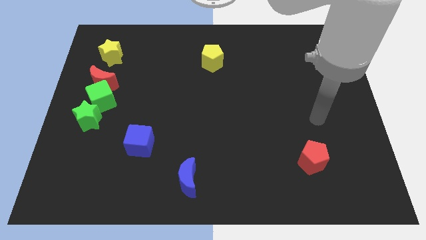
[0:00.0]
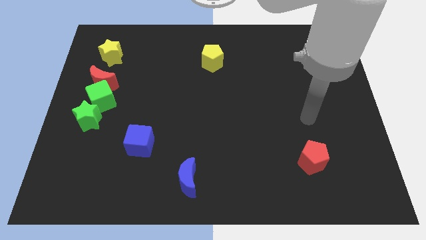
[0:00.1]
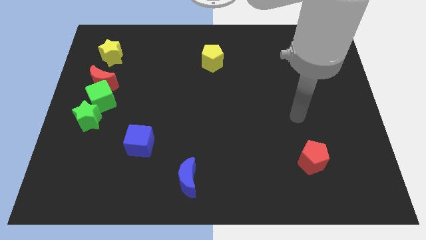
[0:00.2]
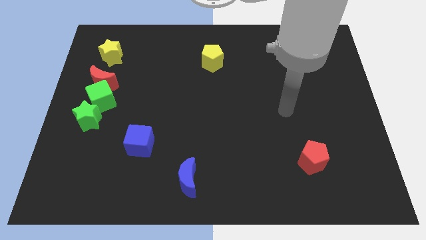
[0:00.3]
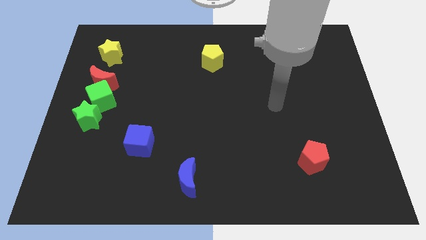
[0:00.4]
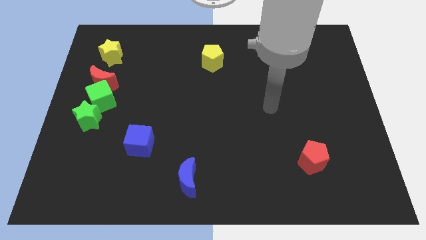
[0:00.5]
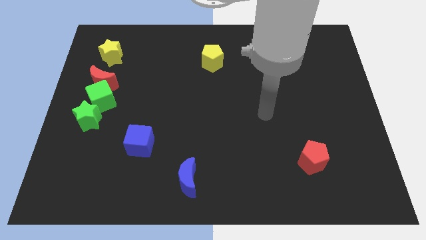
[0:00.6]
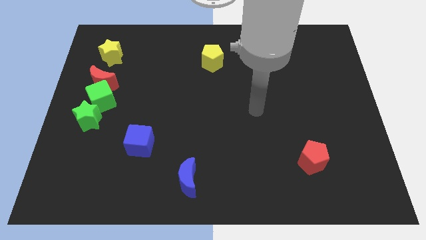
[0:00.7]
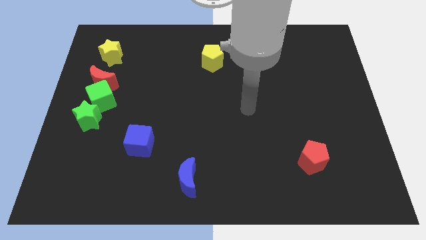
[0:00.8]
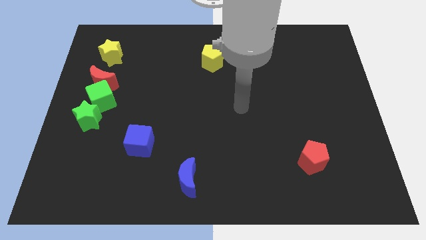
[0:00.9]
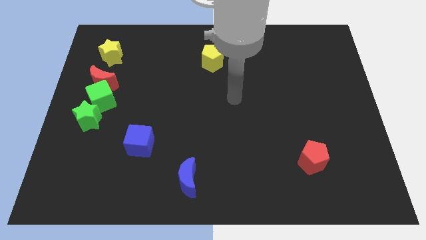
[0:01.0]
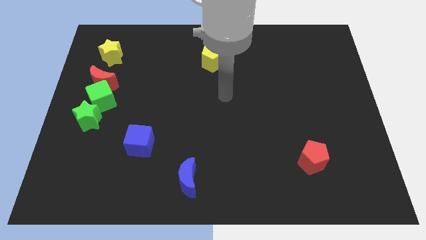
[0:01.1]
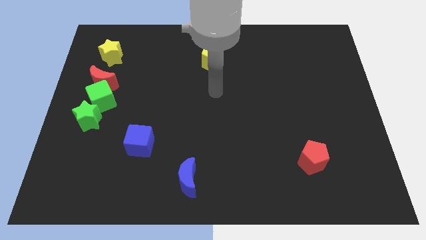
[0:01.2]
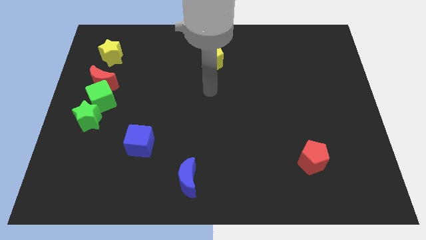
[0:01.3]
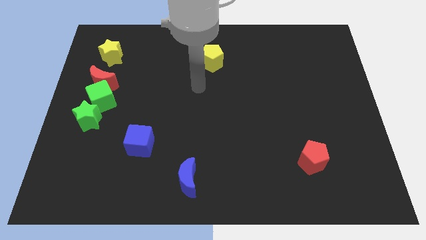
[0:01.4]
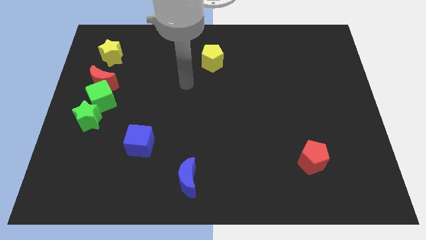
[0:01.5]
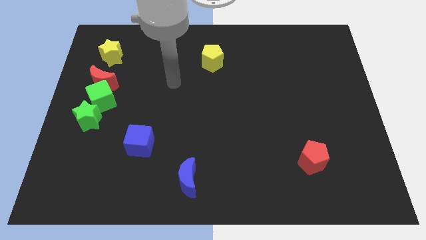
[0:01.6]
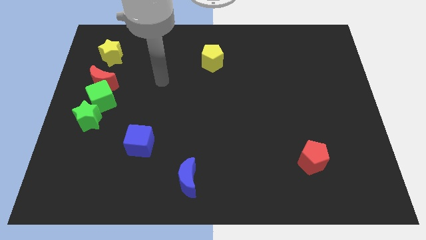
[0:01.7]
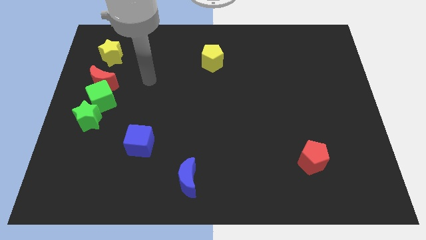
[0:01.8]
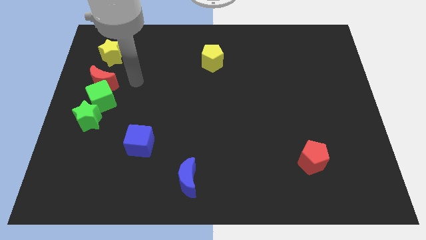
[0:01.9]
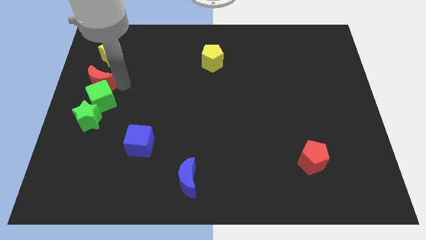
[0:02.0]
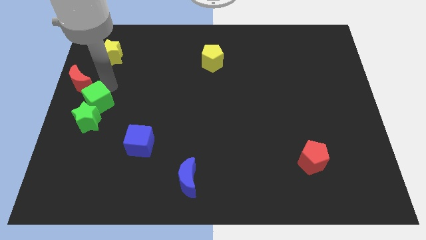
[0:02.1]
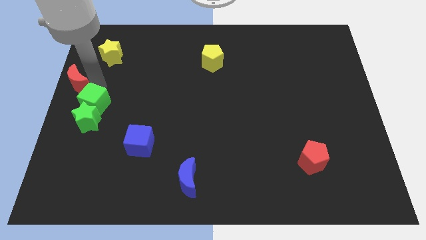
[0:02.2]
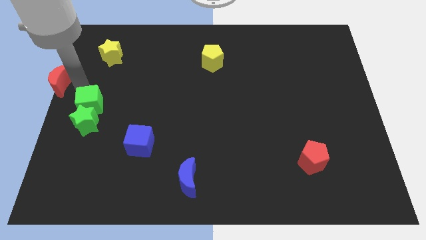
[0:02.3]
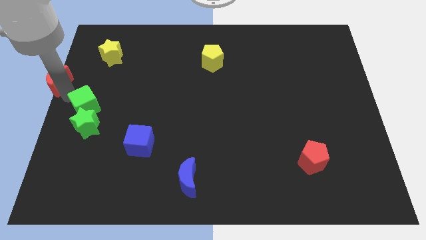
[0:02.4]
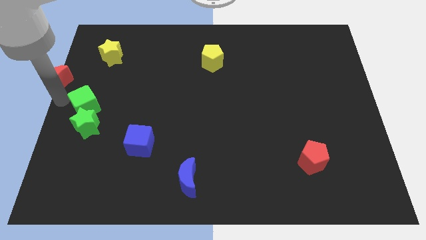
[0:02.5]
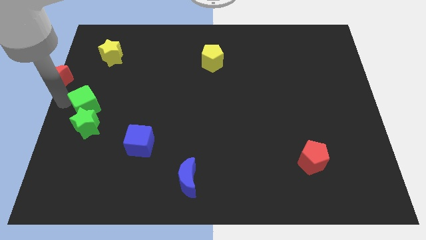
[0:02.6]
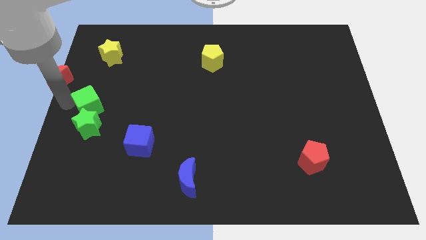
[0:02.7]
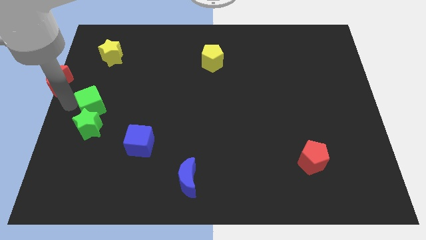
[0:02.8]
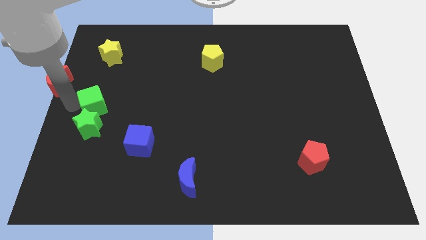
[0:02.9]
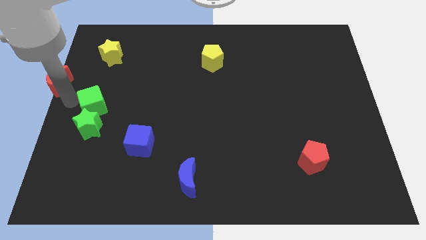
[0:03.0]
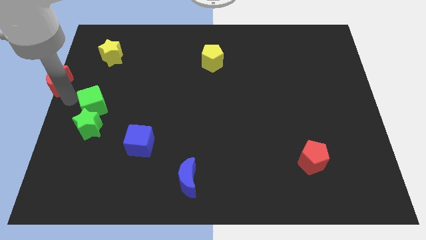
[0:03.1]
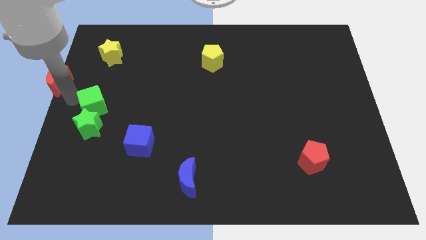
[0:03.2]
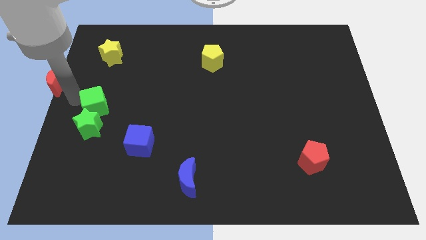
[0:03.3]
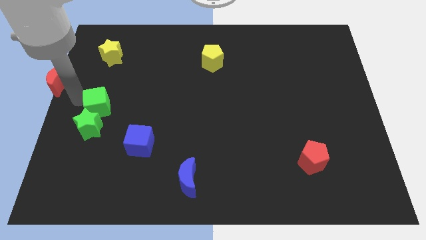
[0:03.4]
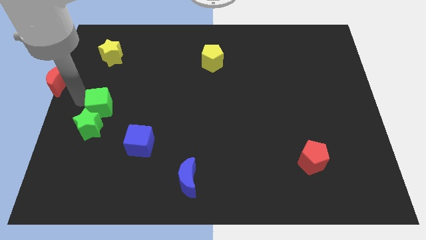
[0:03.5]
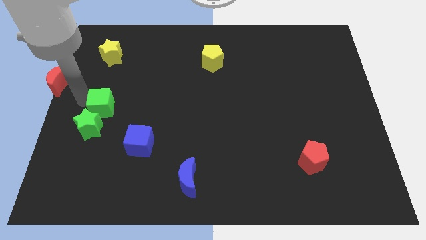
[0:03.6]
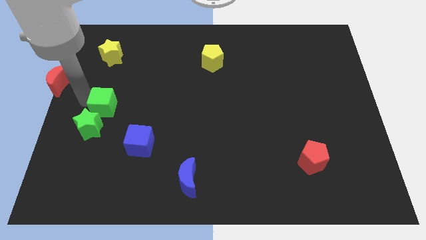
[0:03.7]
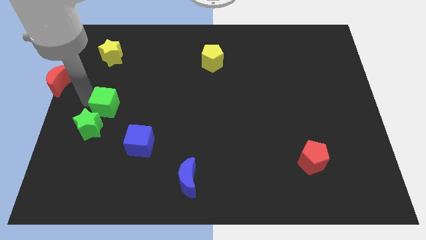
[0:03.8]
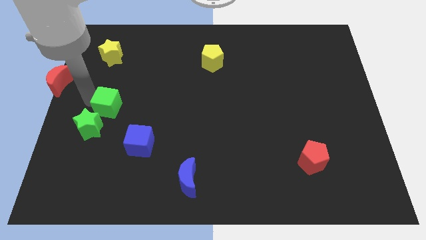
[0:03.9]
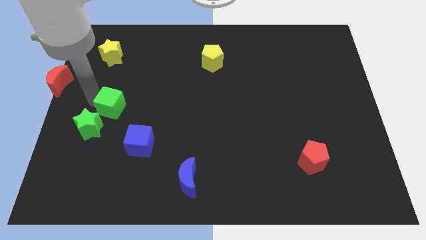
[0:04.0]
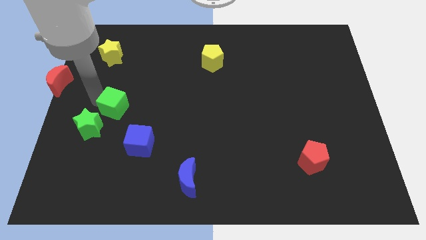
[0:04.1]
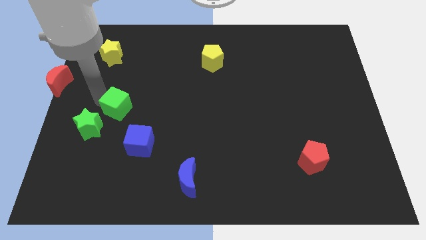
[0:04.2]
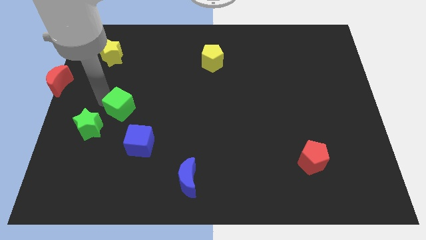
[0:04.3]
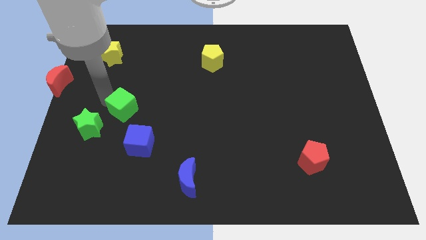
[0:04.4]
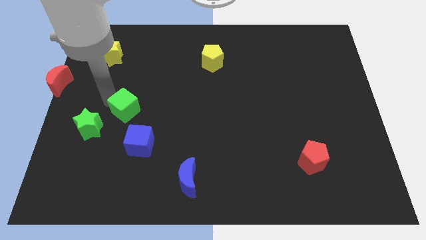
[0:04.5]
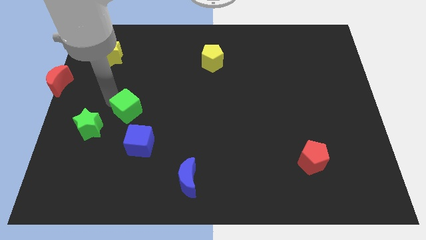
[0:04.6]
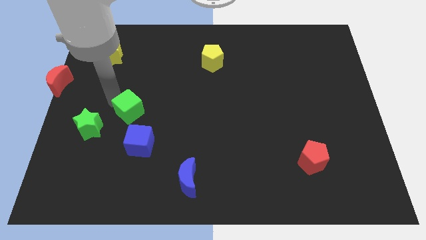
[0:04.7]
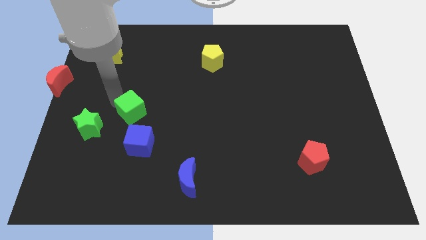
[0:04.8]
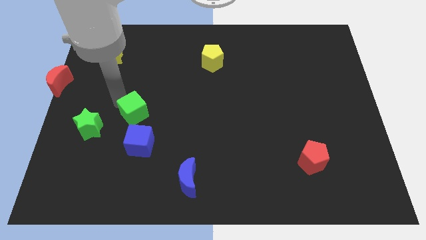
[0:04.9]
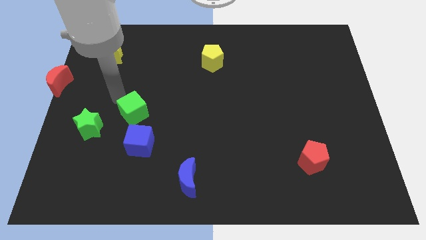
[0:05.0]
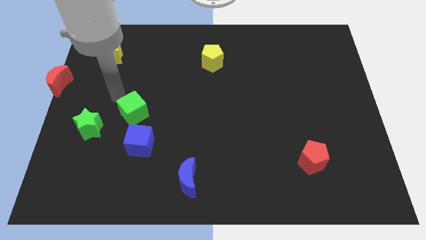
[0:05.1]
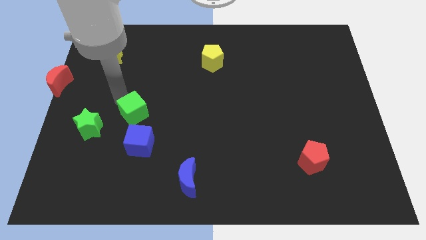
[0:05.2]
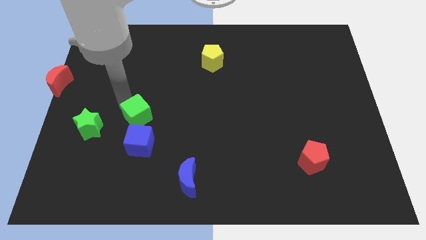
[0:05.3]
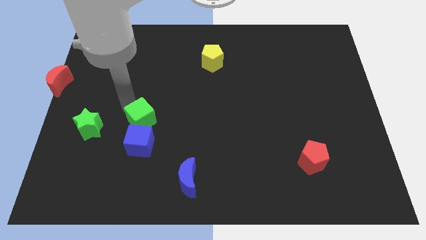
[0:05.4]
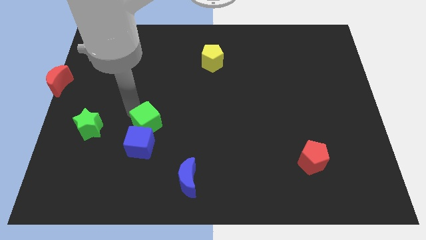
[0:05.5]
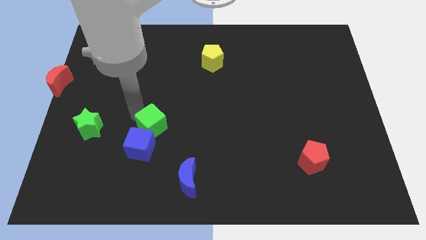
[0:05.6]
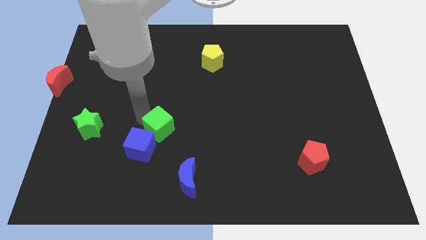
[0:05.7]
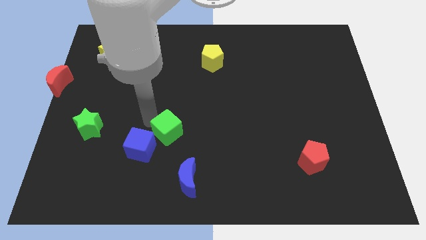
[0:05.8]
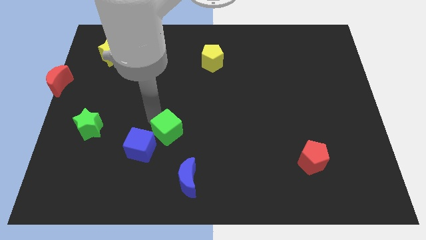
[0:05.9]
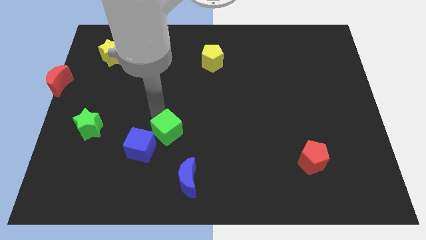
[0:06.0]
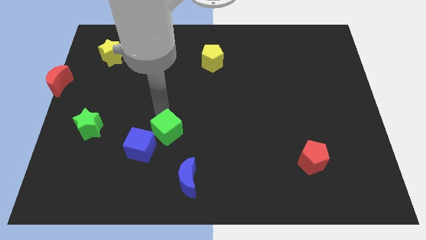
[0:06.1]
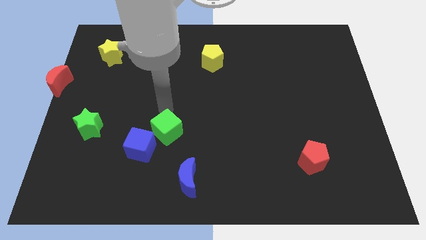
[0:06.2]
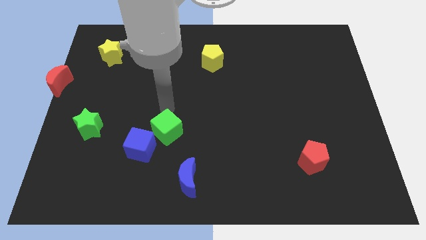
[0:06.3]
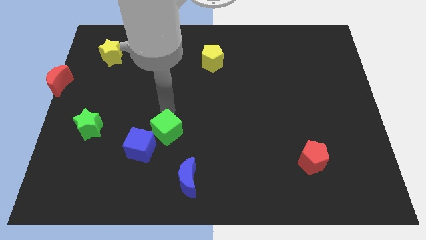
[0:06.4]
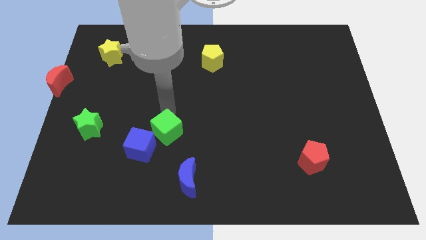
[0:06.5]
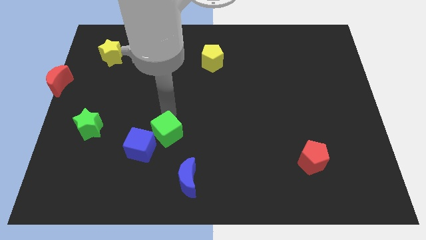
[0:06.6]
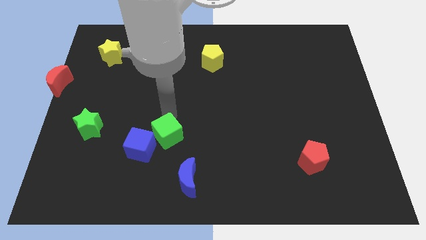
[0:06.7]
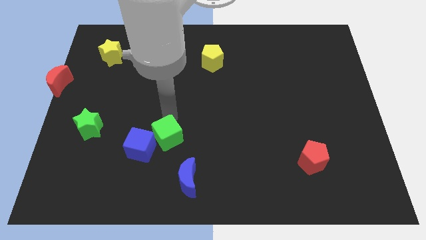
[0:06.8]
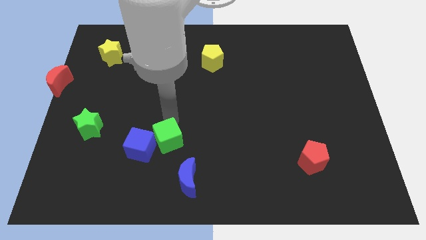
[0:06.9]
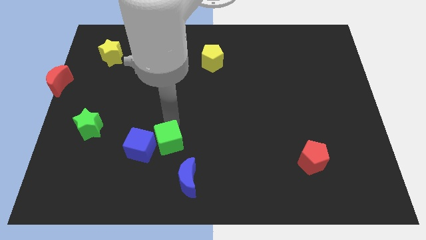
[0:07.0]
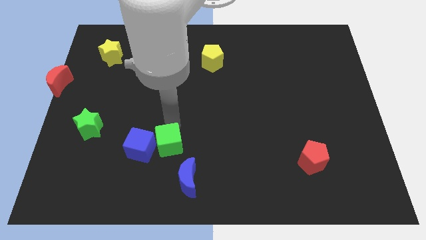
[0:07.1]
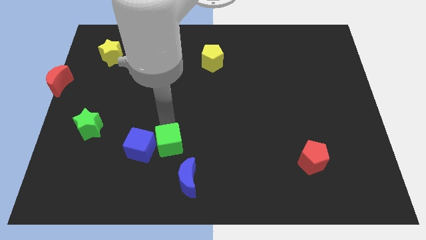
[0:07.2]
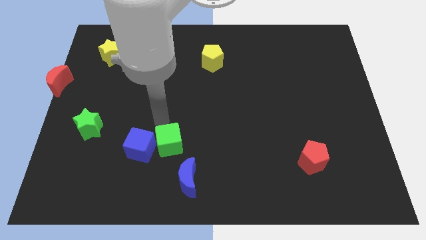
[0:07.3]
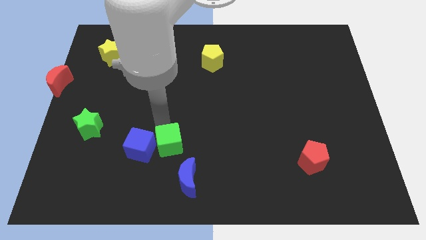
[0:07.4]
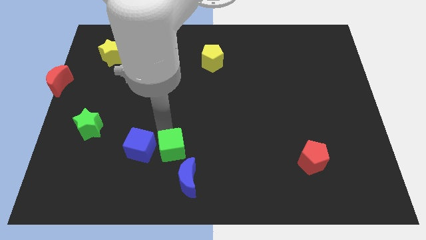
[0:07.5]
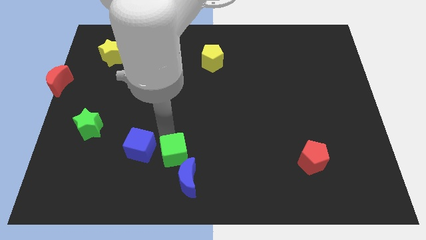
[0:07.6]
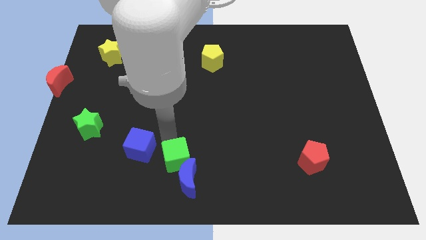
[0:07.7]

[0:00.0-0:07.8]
put the green cube towards the blue moon
